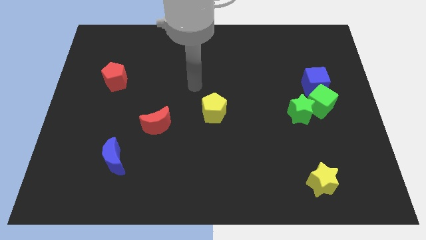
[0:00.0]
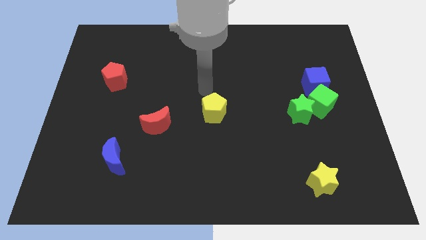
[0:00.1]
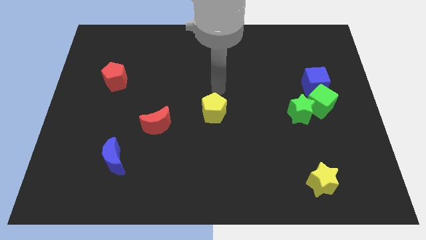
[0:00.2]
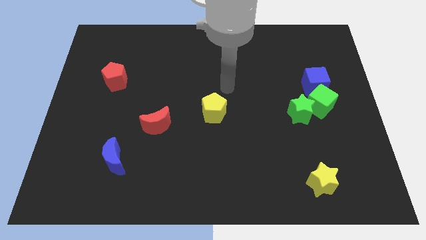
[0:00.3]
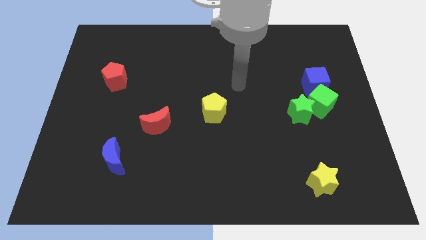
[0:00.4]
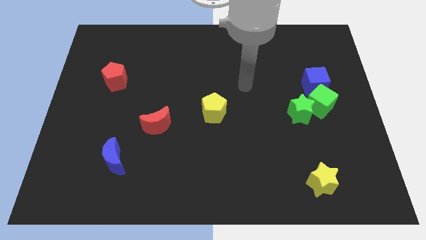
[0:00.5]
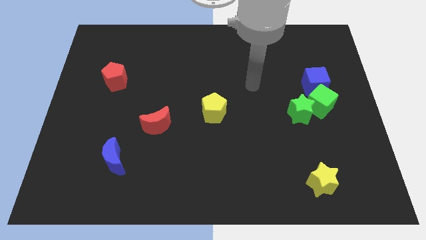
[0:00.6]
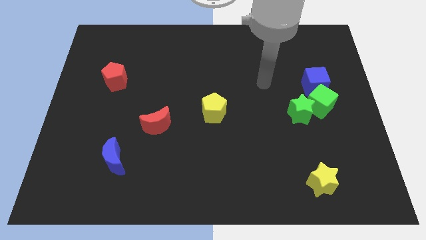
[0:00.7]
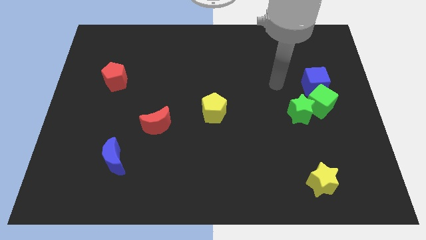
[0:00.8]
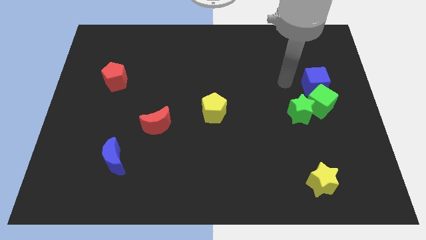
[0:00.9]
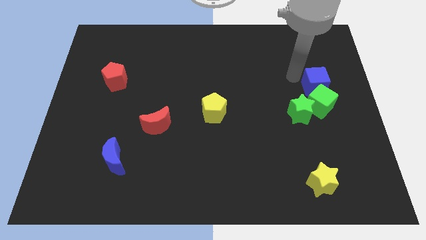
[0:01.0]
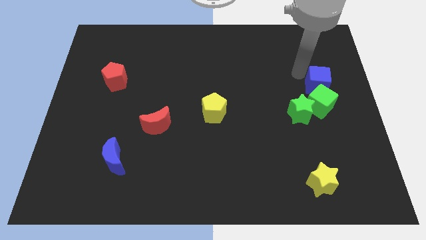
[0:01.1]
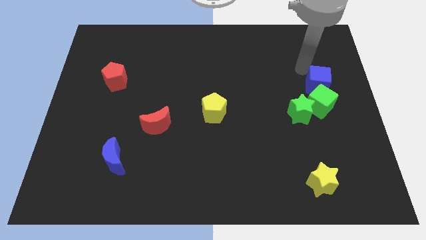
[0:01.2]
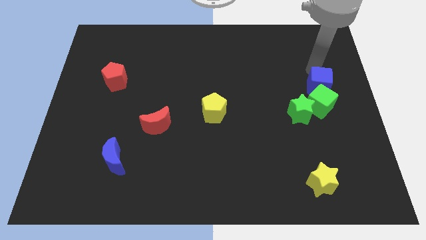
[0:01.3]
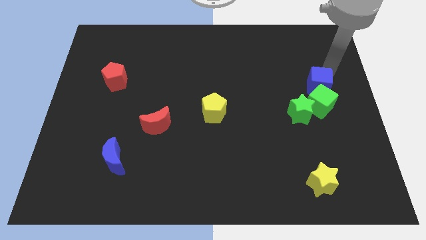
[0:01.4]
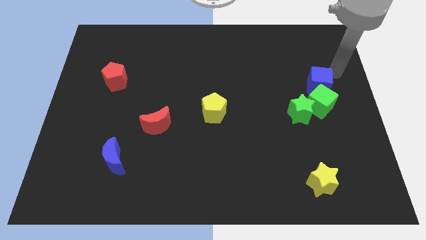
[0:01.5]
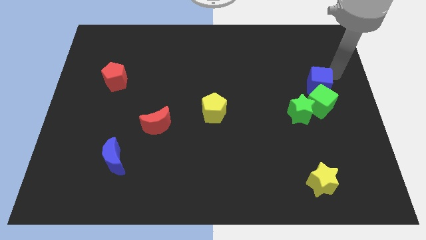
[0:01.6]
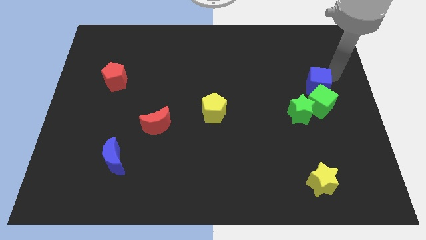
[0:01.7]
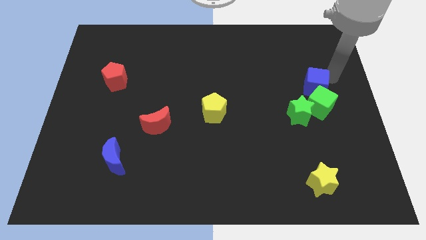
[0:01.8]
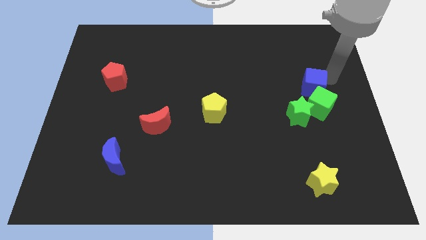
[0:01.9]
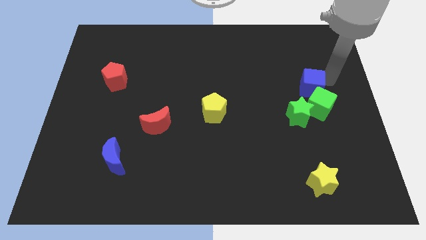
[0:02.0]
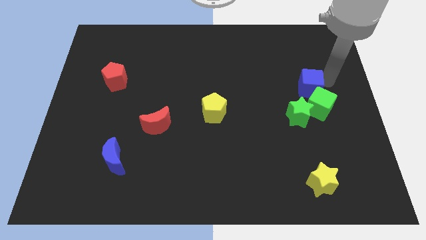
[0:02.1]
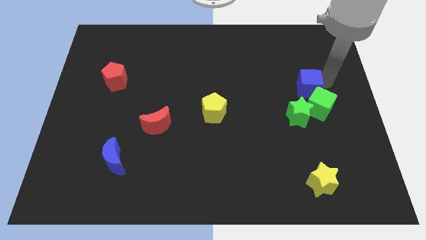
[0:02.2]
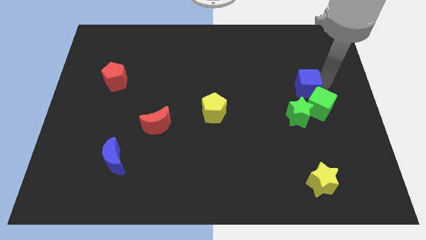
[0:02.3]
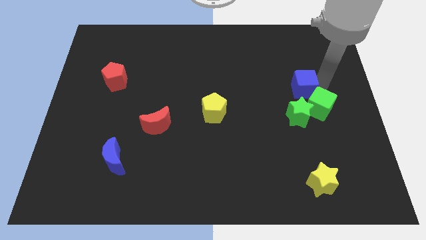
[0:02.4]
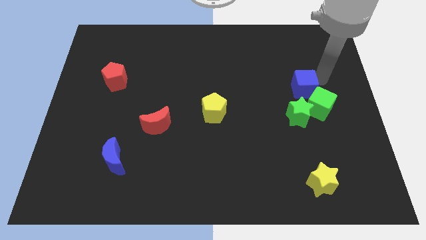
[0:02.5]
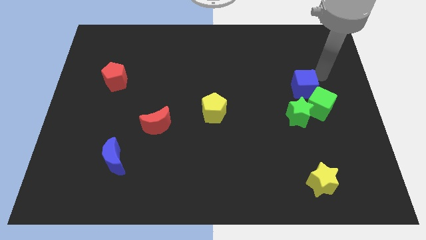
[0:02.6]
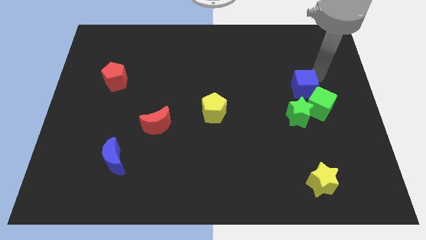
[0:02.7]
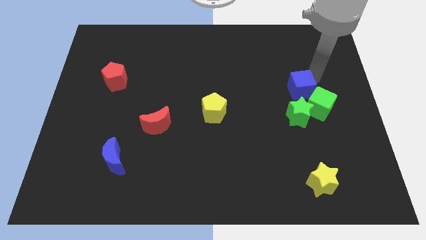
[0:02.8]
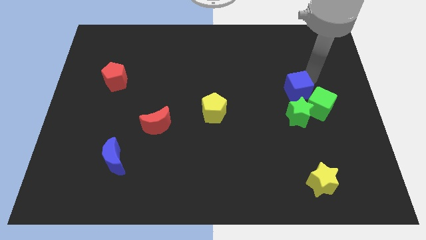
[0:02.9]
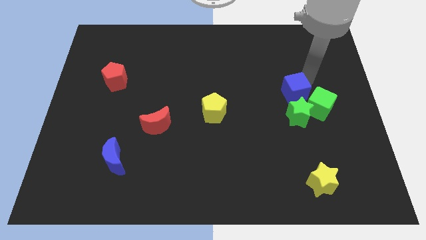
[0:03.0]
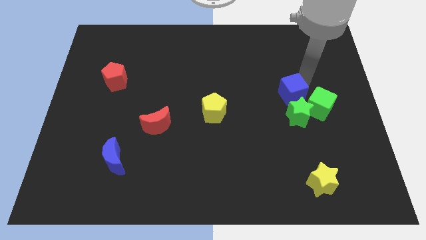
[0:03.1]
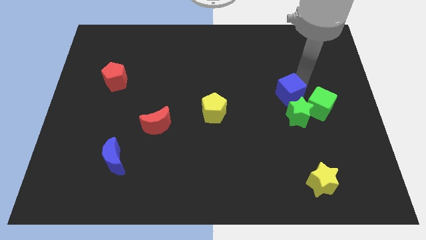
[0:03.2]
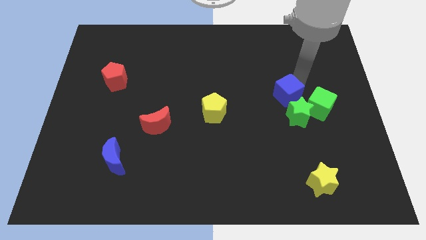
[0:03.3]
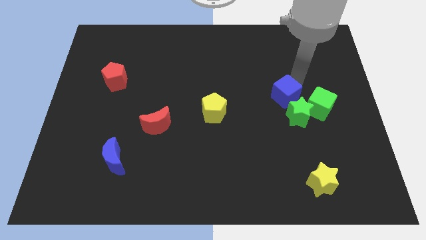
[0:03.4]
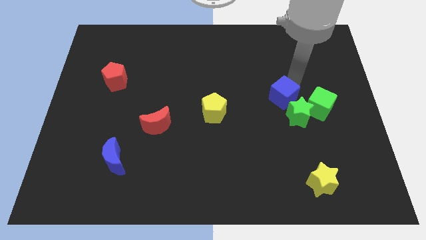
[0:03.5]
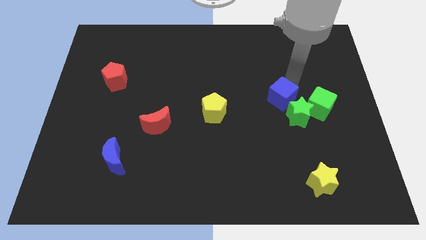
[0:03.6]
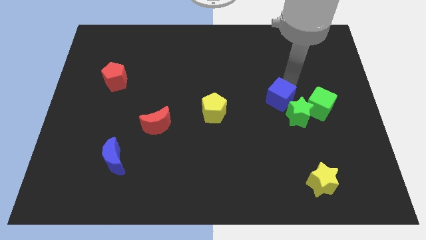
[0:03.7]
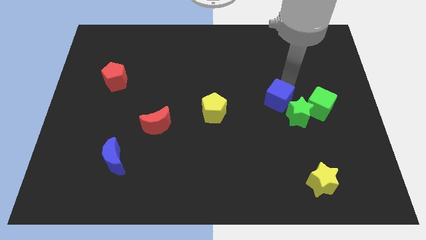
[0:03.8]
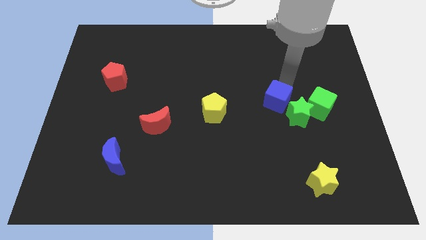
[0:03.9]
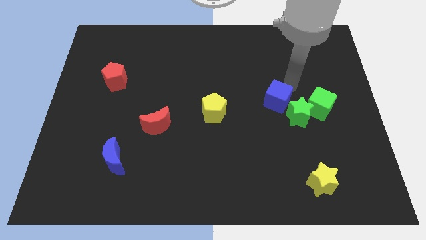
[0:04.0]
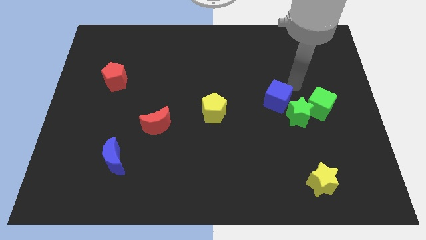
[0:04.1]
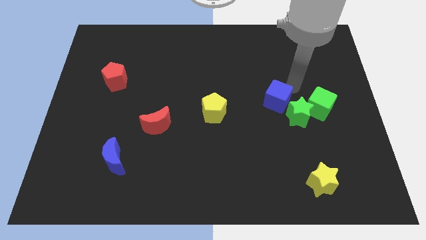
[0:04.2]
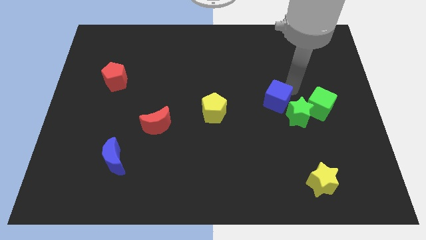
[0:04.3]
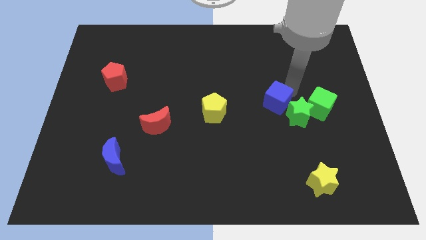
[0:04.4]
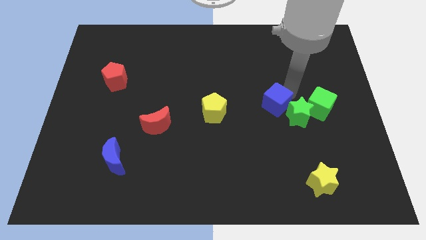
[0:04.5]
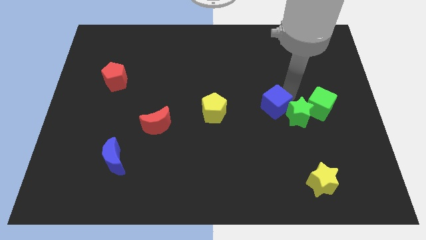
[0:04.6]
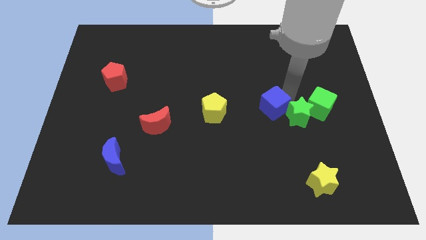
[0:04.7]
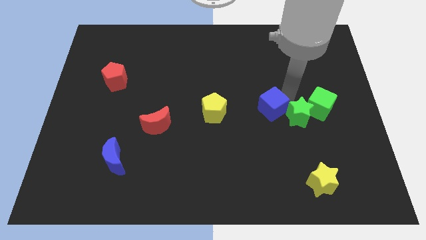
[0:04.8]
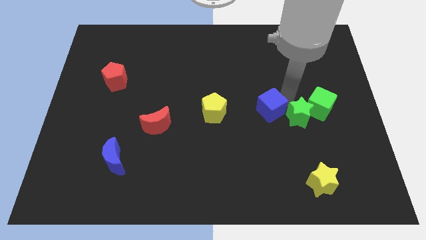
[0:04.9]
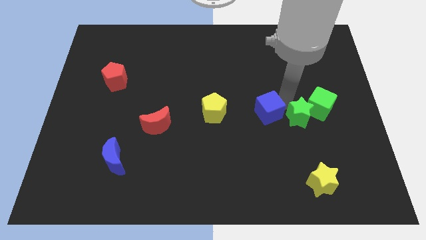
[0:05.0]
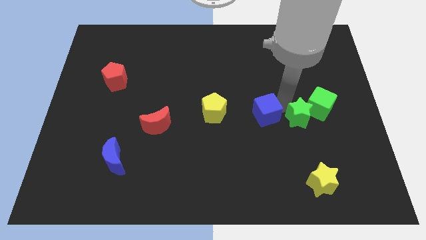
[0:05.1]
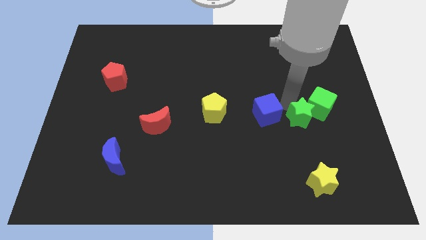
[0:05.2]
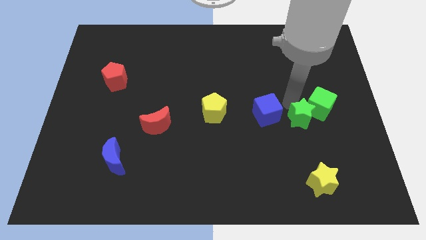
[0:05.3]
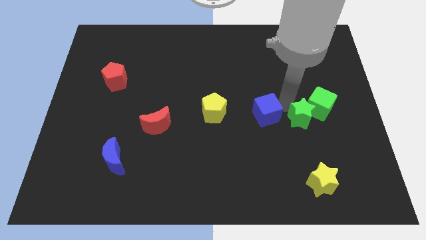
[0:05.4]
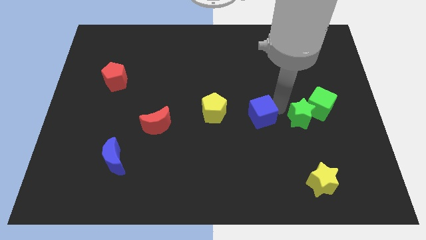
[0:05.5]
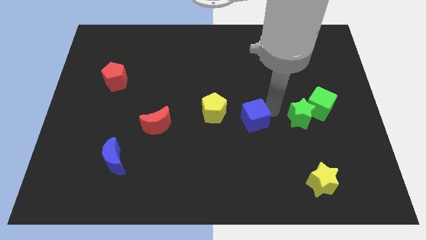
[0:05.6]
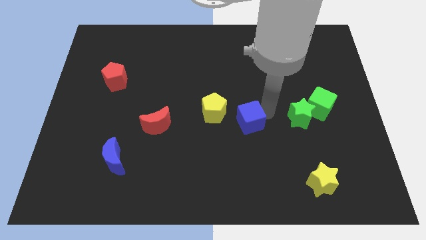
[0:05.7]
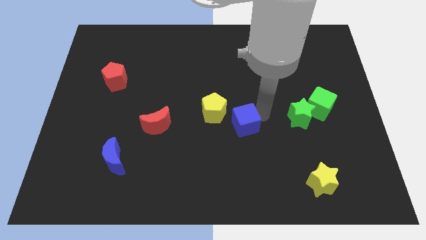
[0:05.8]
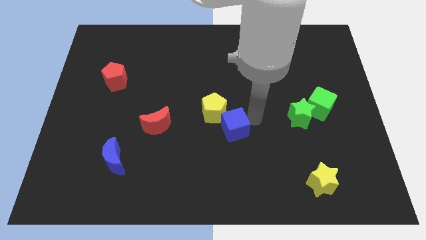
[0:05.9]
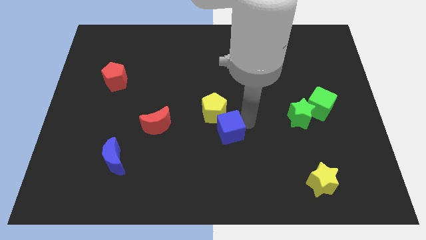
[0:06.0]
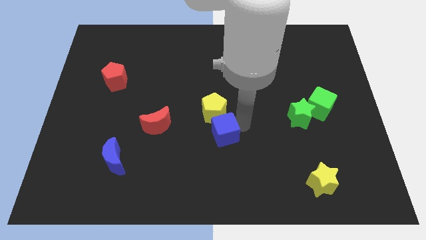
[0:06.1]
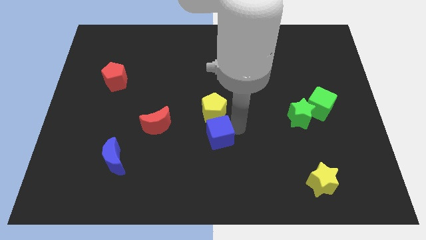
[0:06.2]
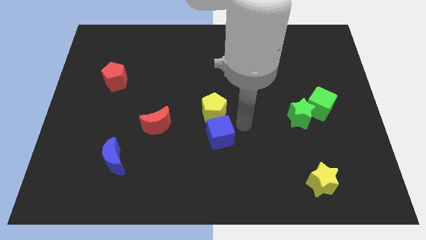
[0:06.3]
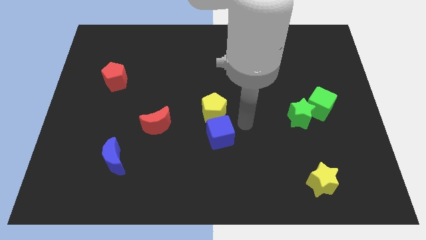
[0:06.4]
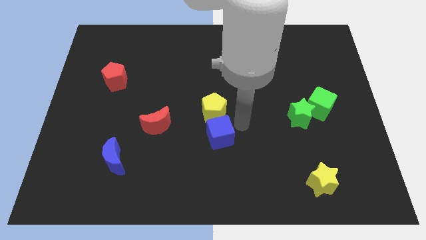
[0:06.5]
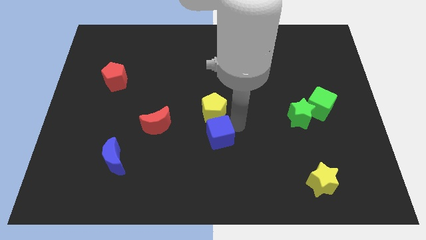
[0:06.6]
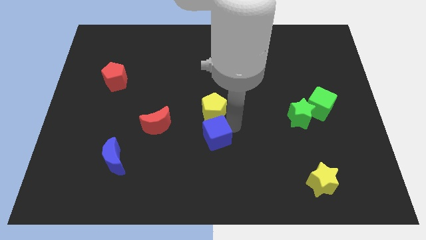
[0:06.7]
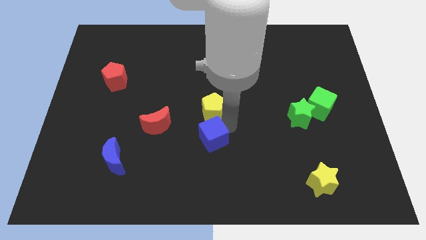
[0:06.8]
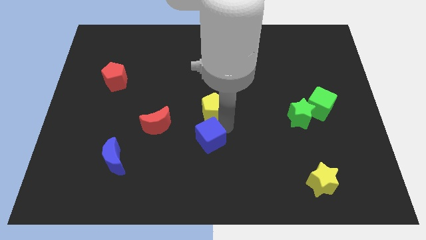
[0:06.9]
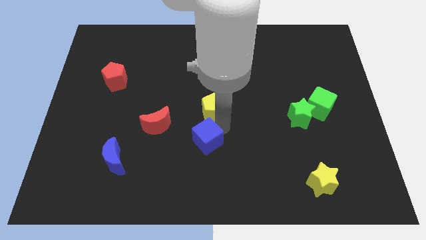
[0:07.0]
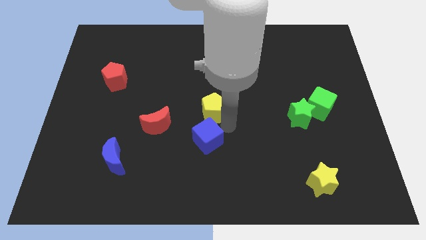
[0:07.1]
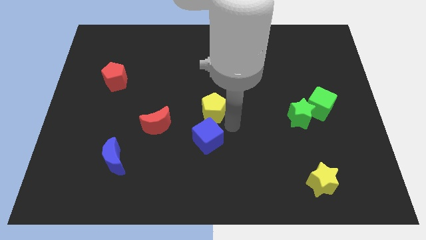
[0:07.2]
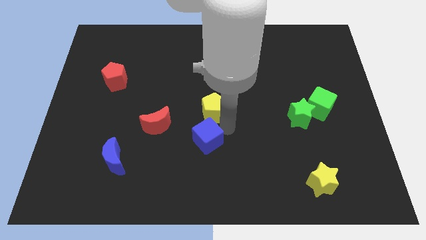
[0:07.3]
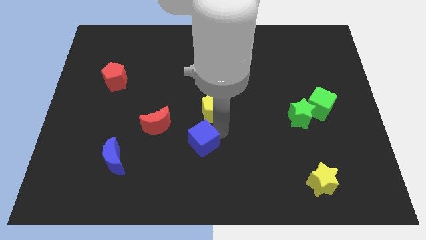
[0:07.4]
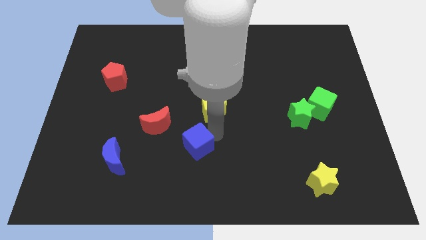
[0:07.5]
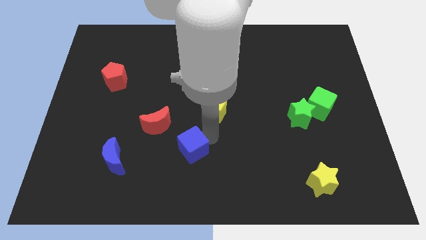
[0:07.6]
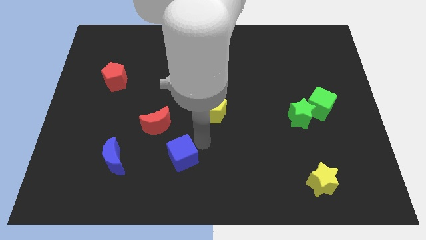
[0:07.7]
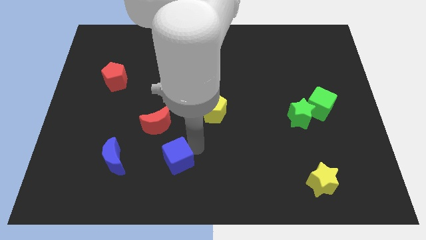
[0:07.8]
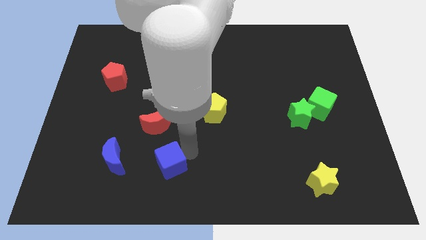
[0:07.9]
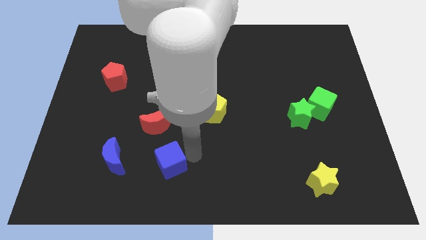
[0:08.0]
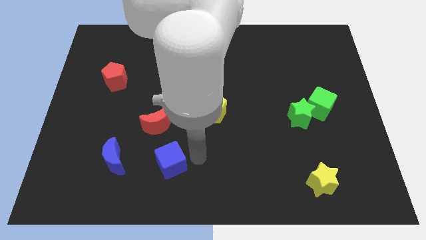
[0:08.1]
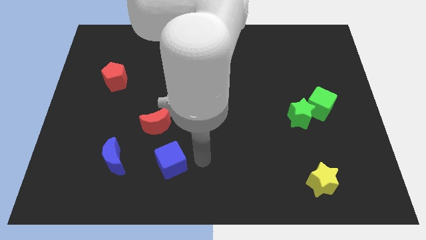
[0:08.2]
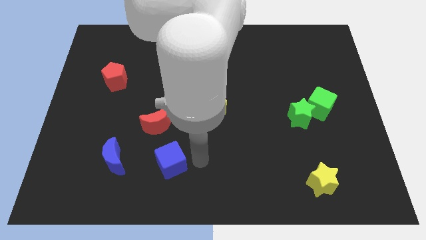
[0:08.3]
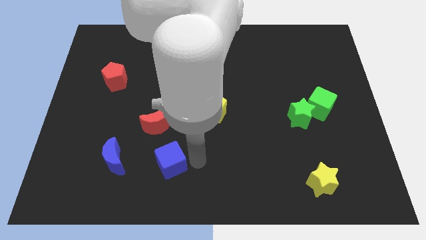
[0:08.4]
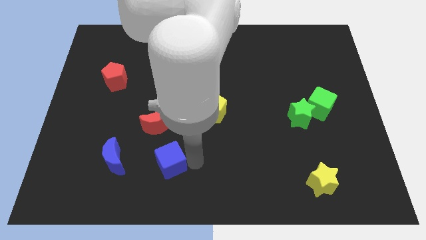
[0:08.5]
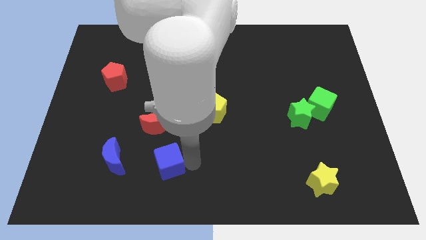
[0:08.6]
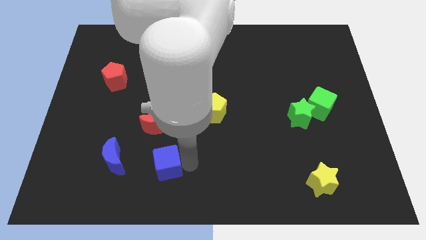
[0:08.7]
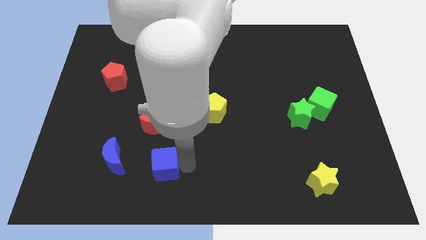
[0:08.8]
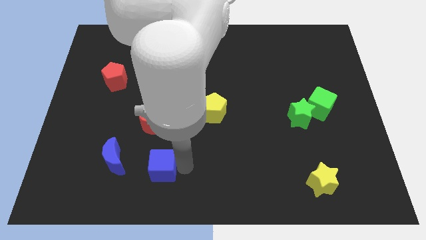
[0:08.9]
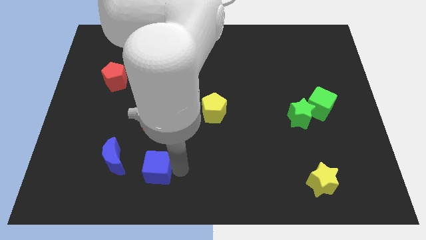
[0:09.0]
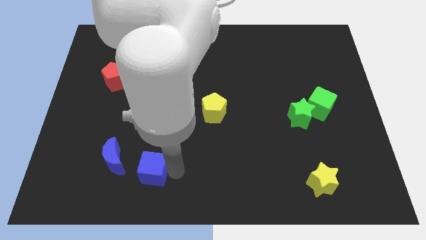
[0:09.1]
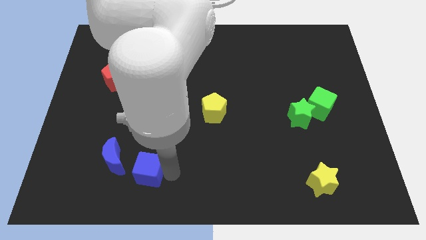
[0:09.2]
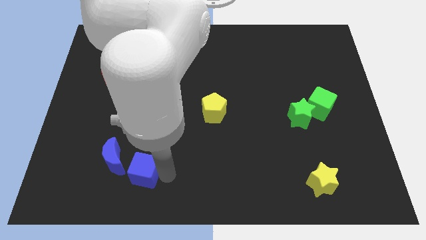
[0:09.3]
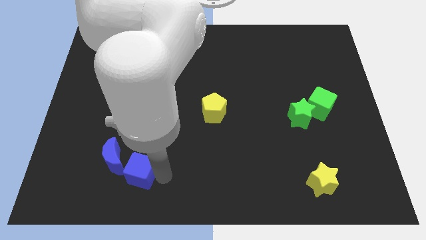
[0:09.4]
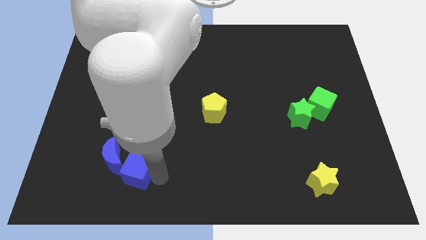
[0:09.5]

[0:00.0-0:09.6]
push the blue cube close to the blue moon
